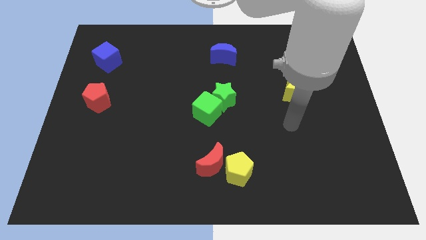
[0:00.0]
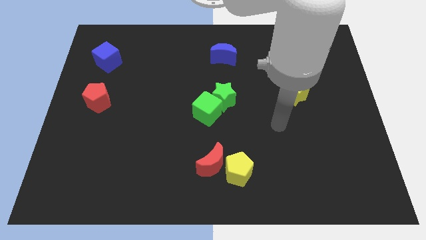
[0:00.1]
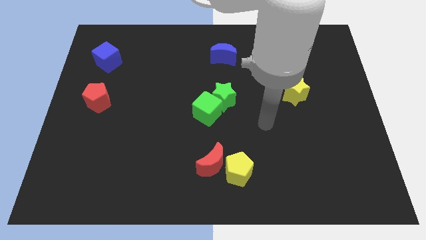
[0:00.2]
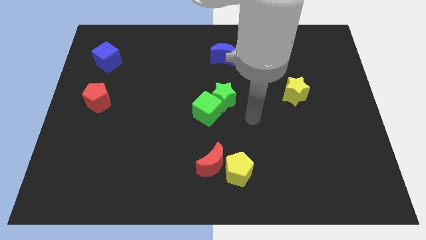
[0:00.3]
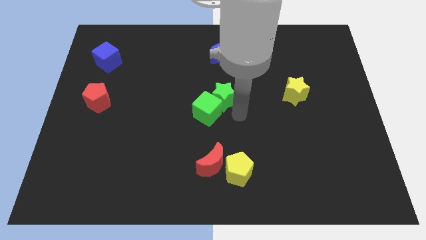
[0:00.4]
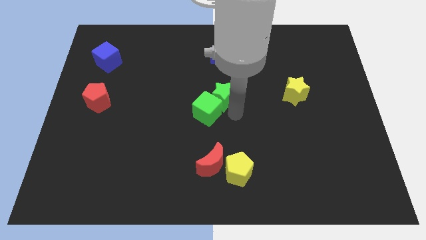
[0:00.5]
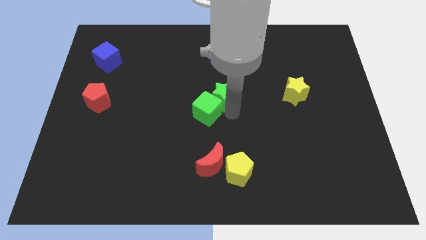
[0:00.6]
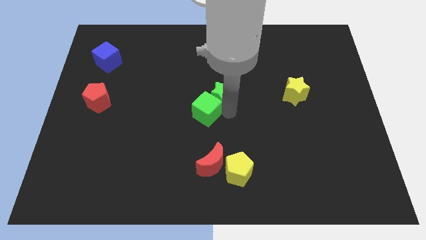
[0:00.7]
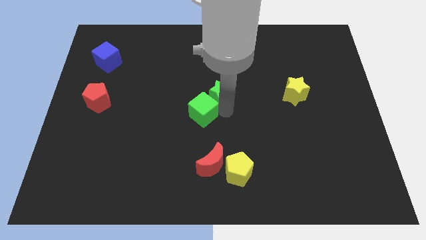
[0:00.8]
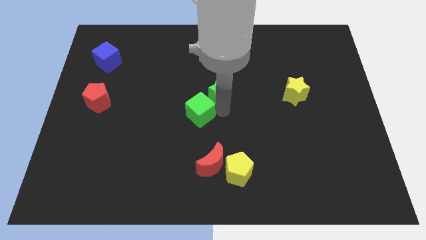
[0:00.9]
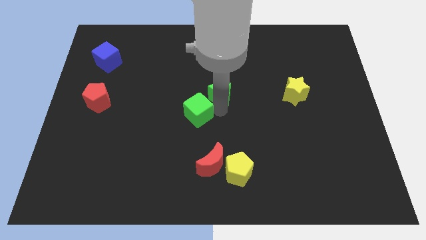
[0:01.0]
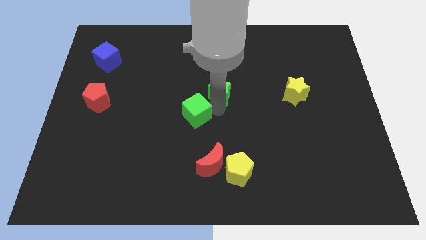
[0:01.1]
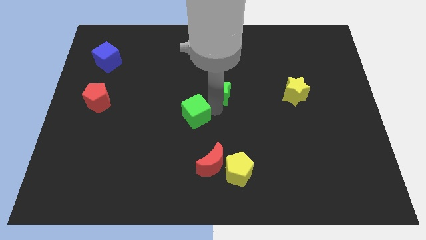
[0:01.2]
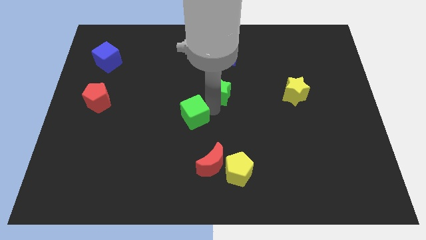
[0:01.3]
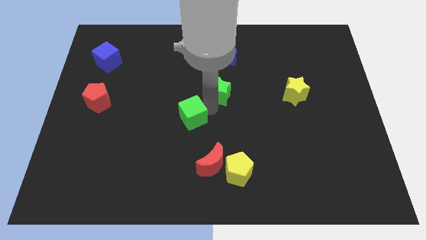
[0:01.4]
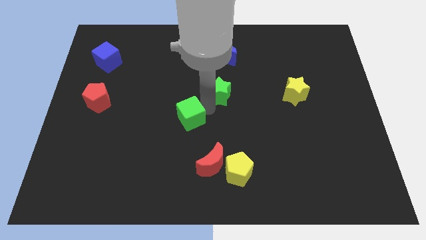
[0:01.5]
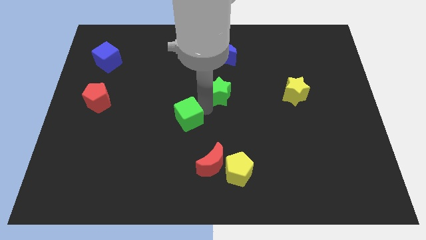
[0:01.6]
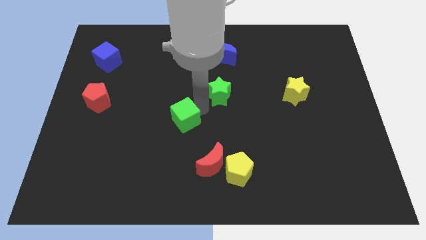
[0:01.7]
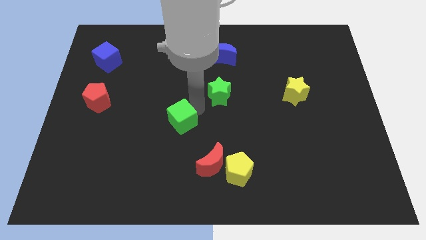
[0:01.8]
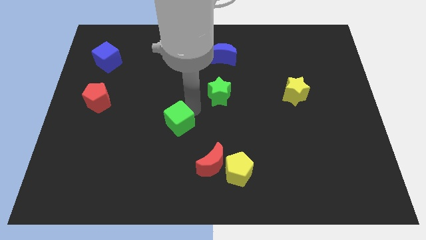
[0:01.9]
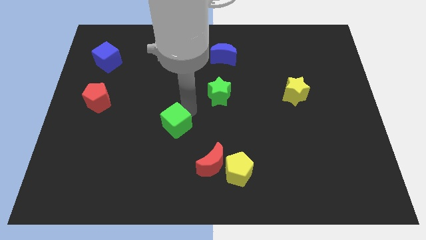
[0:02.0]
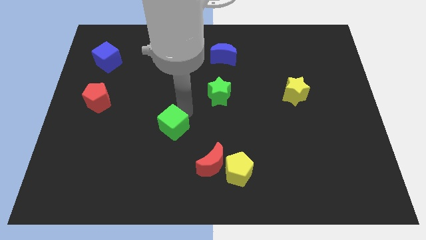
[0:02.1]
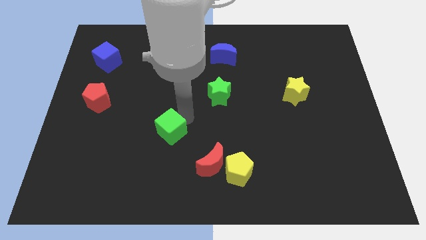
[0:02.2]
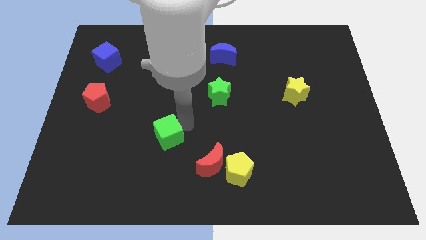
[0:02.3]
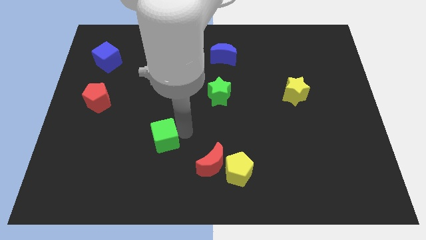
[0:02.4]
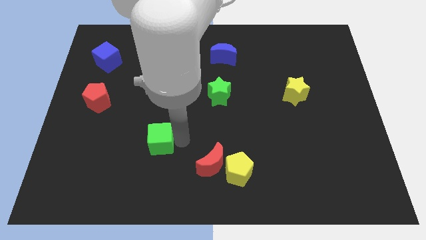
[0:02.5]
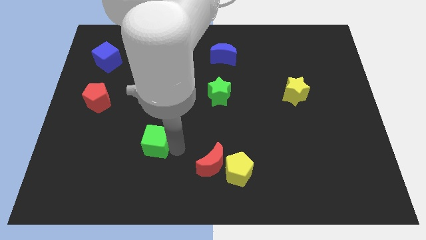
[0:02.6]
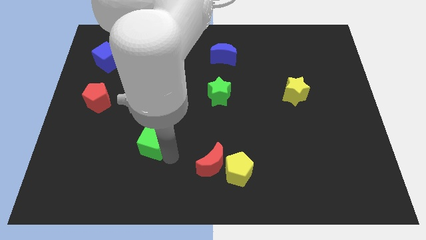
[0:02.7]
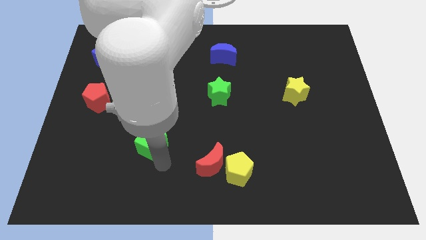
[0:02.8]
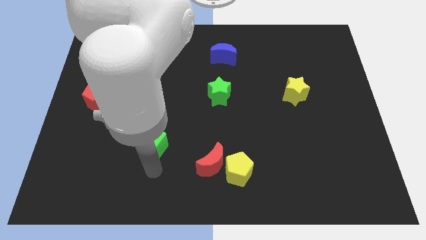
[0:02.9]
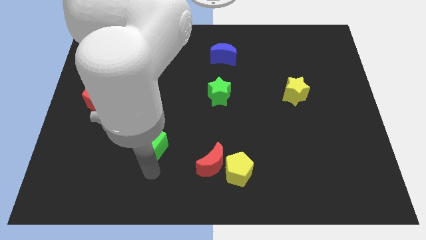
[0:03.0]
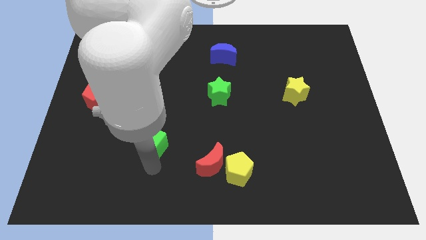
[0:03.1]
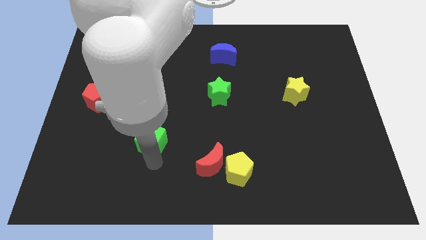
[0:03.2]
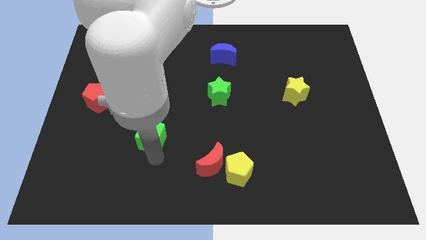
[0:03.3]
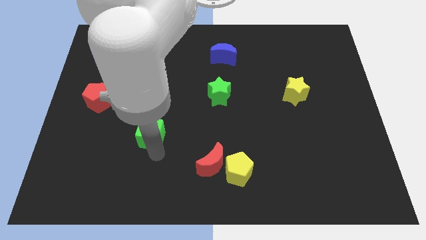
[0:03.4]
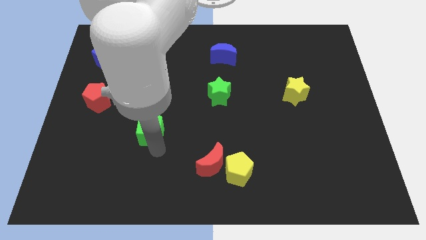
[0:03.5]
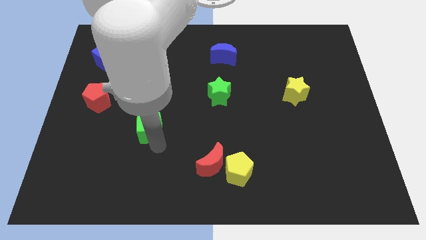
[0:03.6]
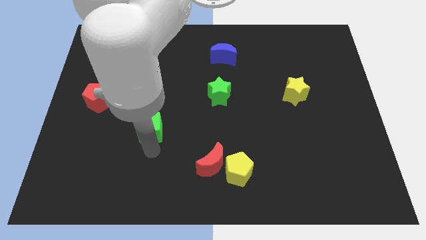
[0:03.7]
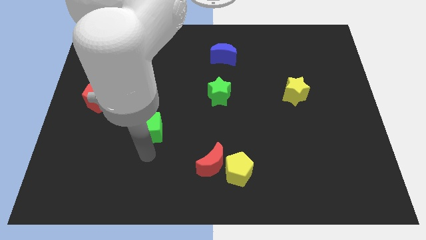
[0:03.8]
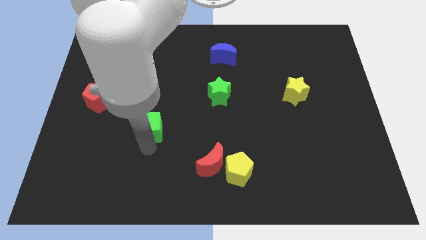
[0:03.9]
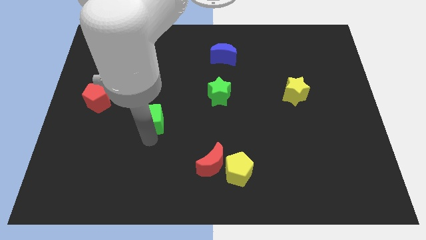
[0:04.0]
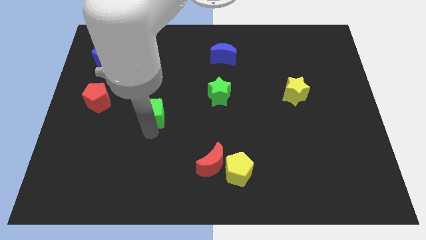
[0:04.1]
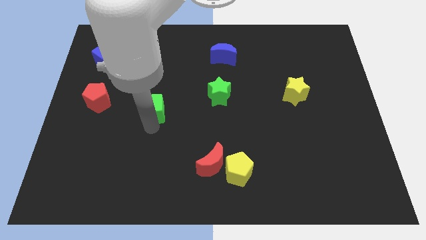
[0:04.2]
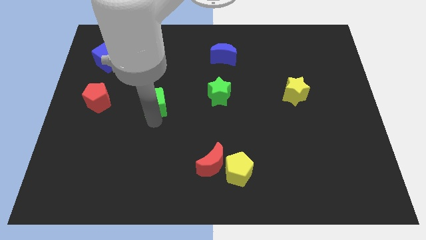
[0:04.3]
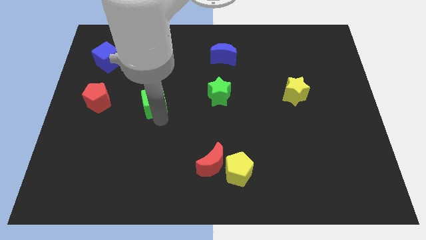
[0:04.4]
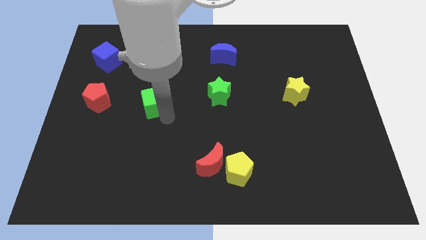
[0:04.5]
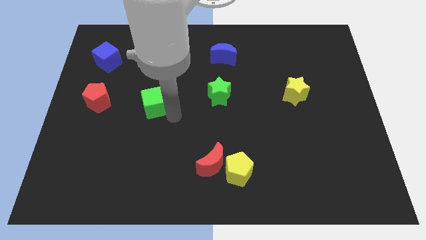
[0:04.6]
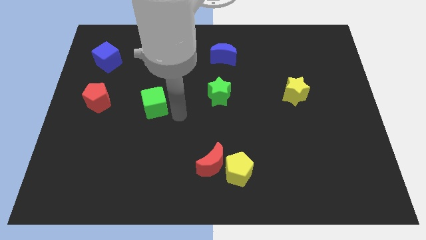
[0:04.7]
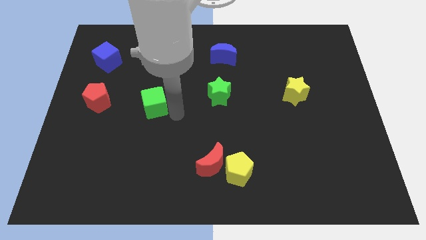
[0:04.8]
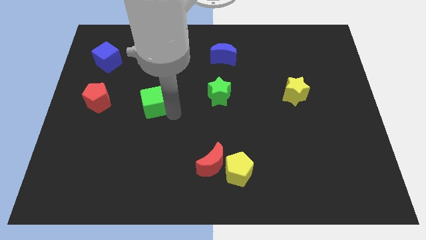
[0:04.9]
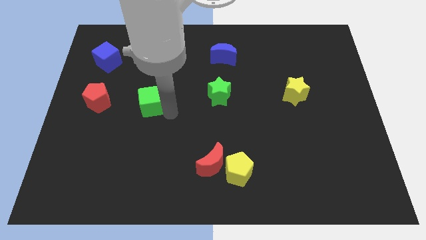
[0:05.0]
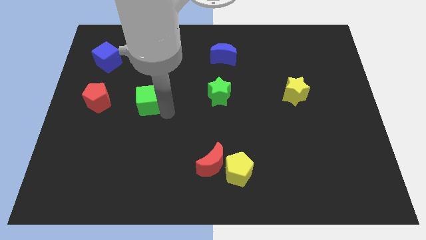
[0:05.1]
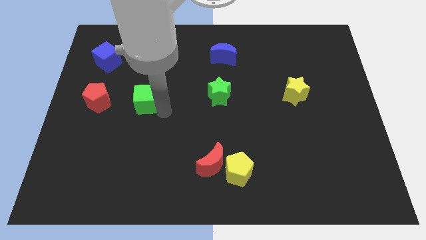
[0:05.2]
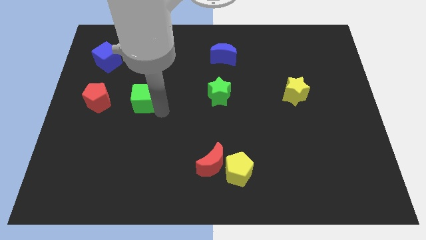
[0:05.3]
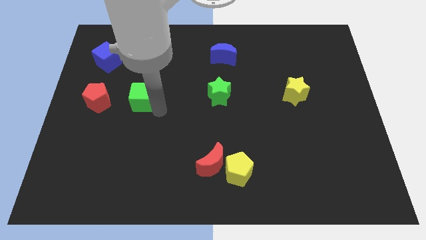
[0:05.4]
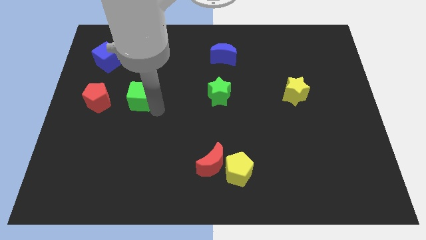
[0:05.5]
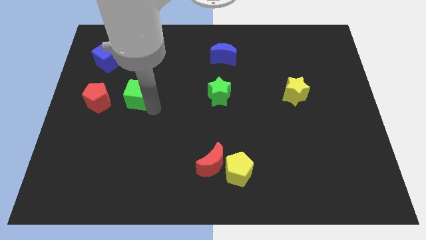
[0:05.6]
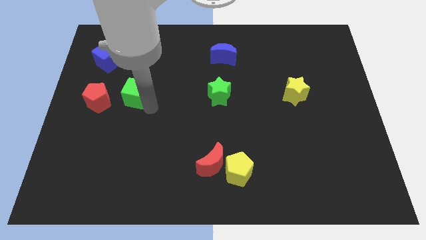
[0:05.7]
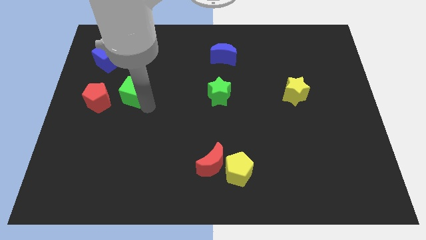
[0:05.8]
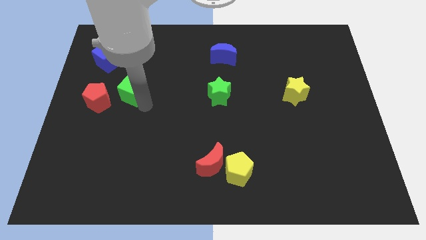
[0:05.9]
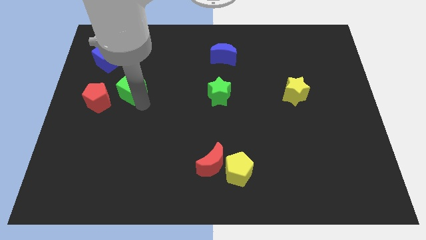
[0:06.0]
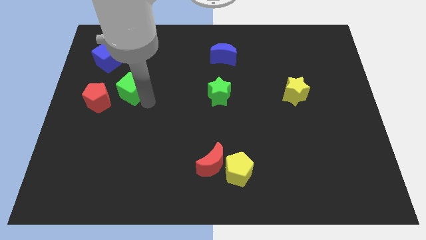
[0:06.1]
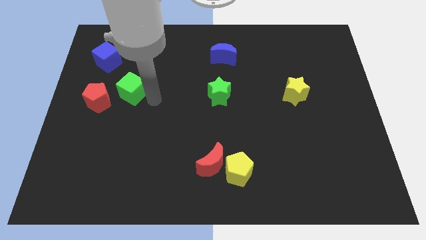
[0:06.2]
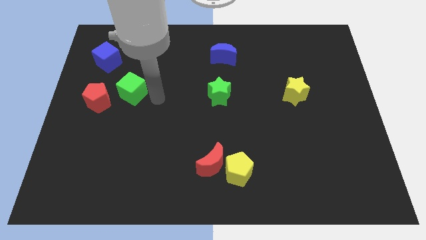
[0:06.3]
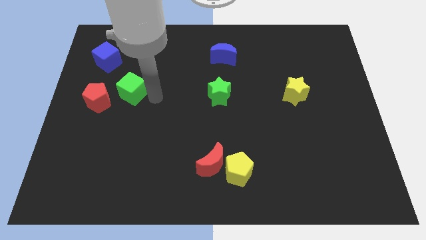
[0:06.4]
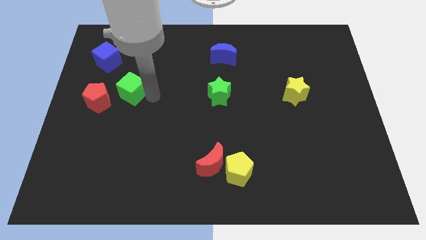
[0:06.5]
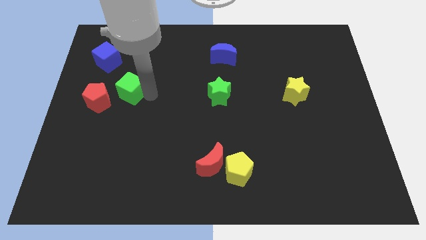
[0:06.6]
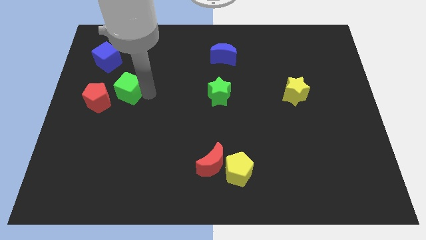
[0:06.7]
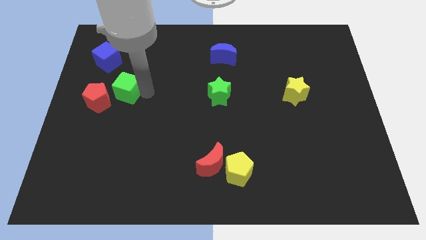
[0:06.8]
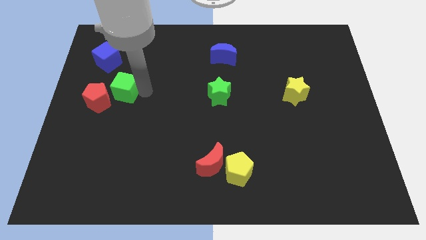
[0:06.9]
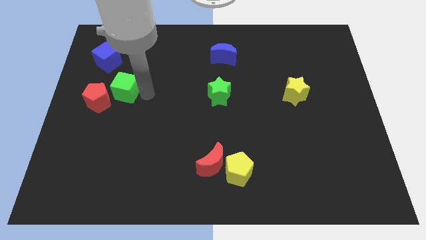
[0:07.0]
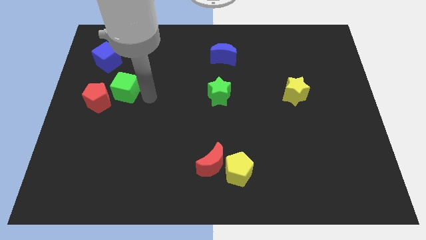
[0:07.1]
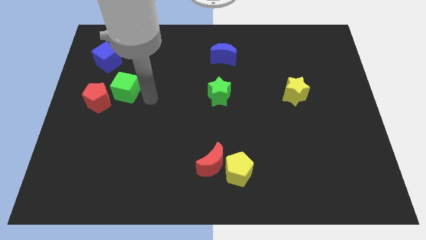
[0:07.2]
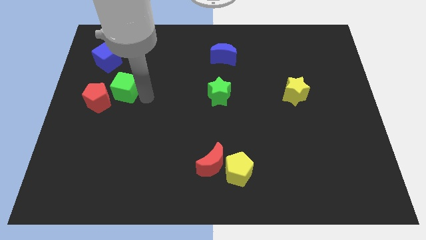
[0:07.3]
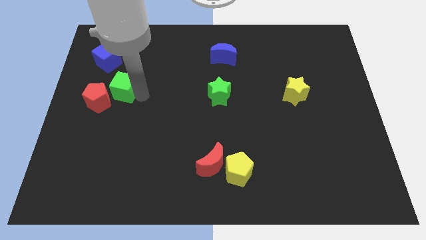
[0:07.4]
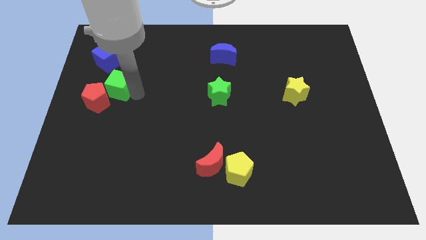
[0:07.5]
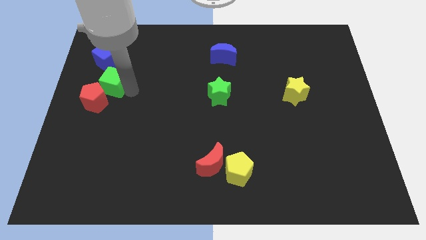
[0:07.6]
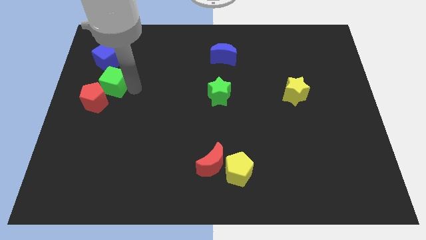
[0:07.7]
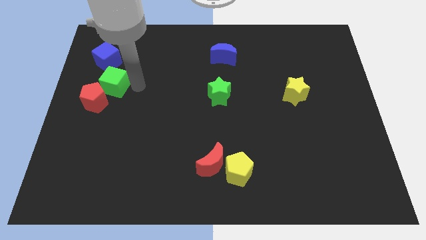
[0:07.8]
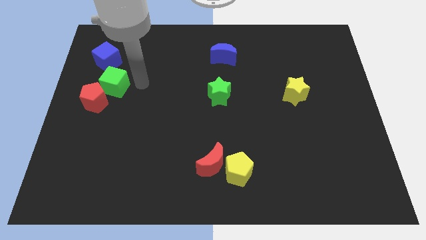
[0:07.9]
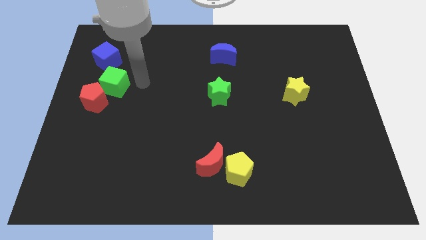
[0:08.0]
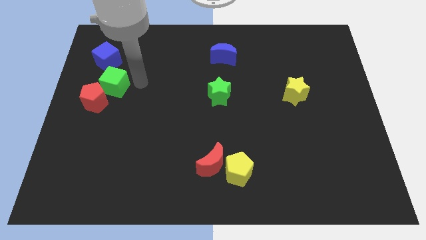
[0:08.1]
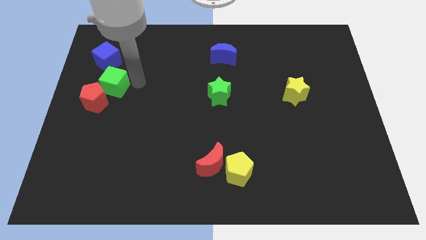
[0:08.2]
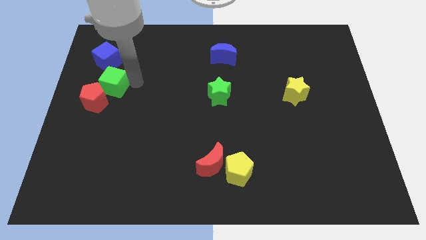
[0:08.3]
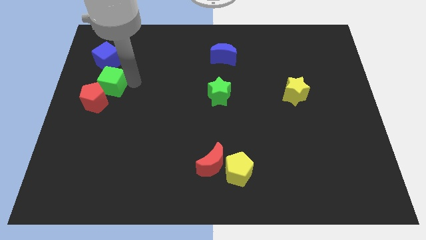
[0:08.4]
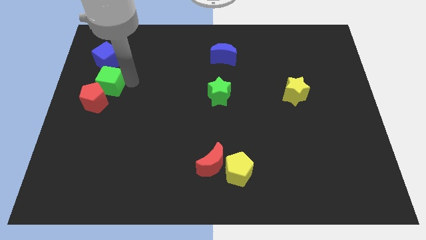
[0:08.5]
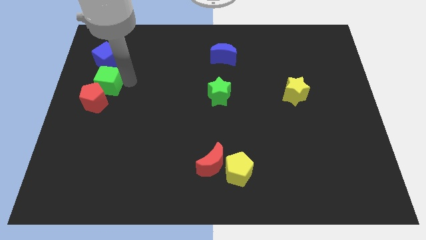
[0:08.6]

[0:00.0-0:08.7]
move the green cube to the left side
